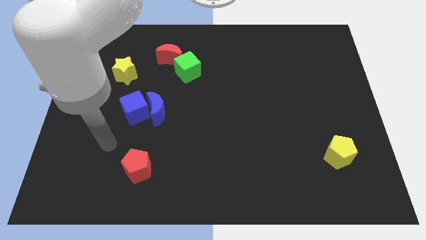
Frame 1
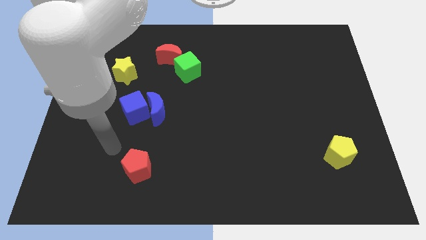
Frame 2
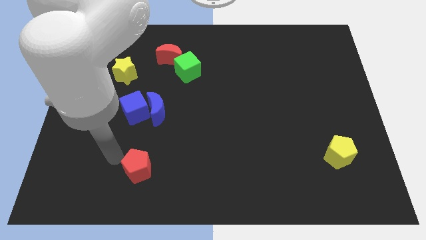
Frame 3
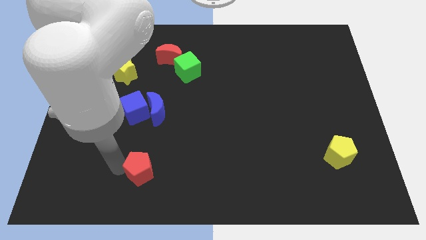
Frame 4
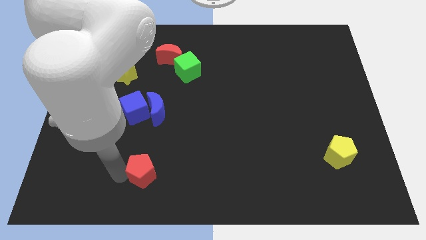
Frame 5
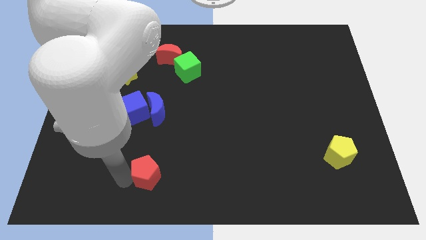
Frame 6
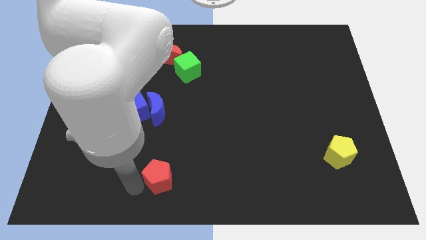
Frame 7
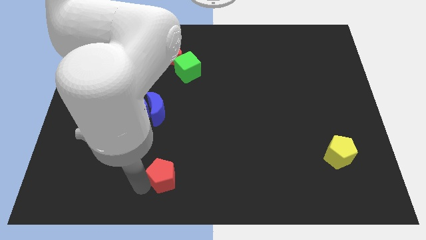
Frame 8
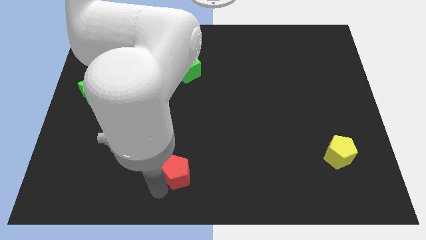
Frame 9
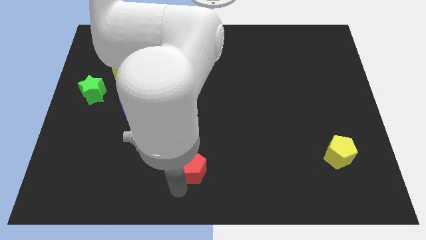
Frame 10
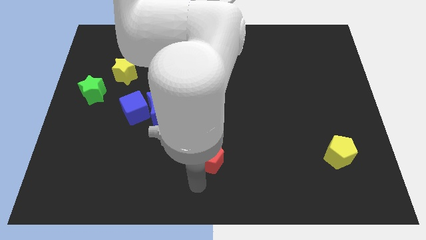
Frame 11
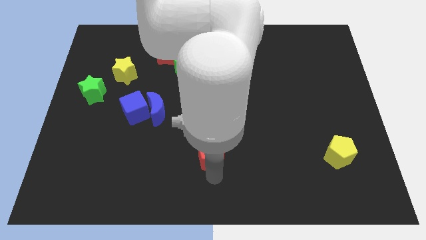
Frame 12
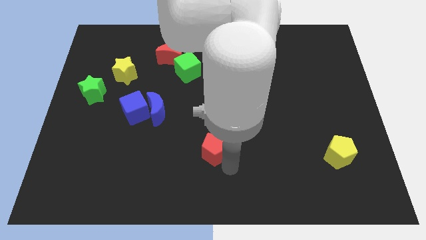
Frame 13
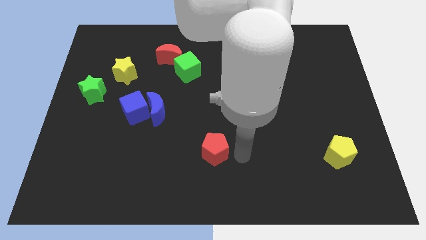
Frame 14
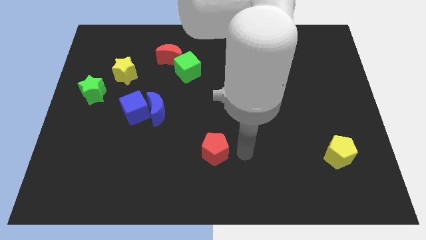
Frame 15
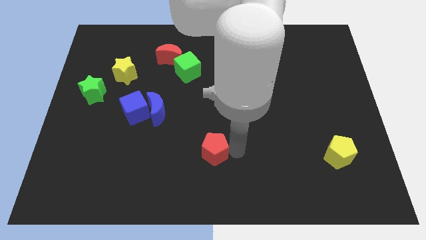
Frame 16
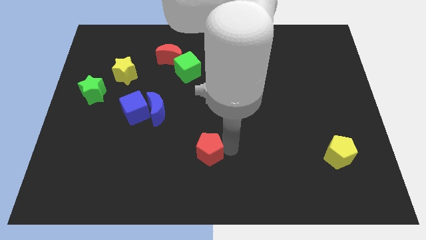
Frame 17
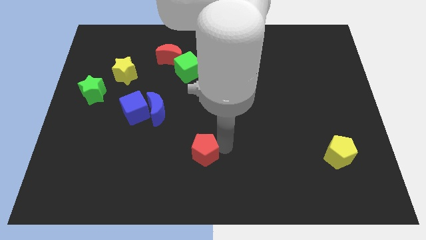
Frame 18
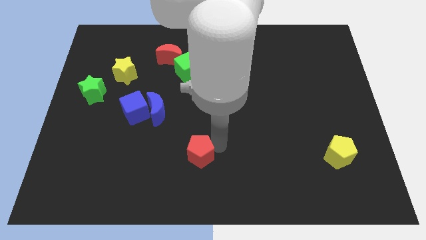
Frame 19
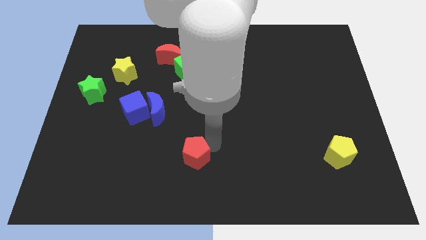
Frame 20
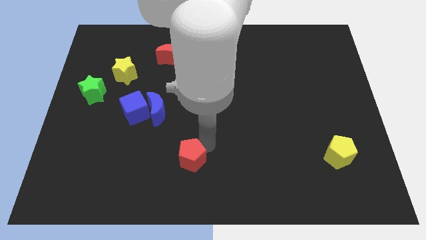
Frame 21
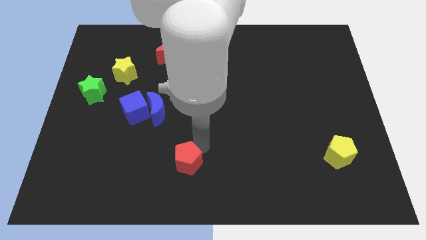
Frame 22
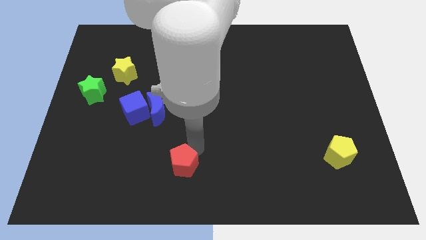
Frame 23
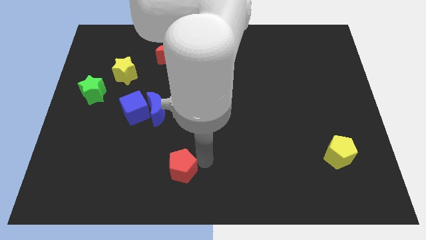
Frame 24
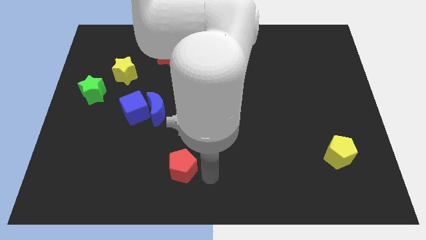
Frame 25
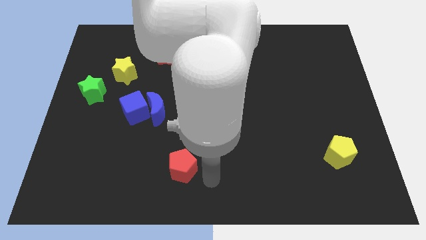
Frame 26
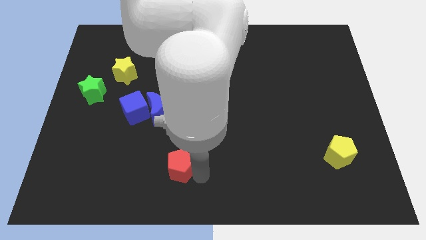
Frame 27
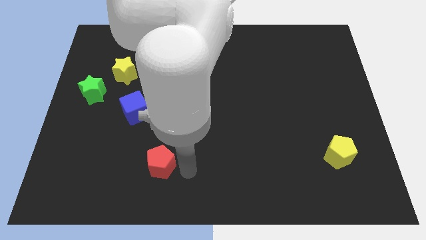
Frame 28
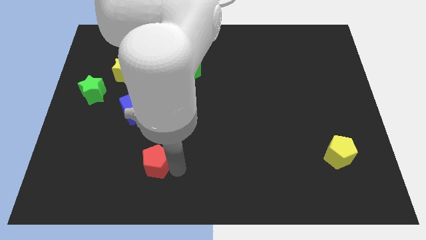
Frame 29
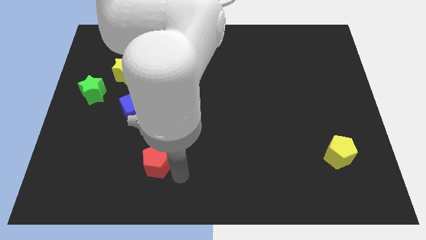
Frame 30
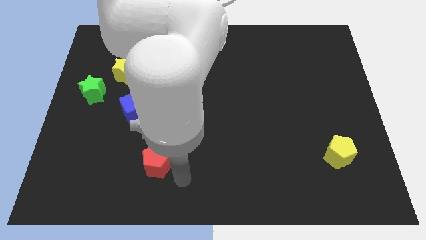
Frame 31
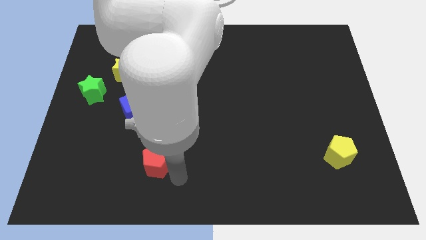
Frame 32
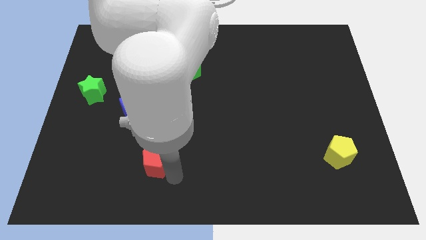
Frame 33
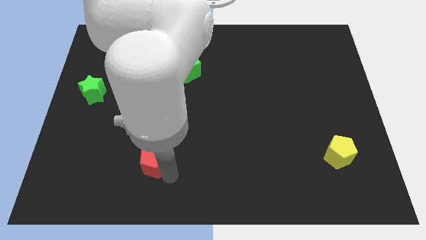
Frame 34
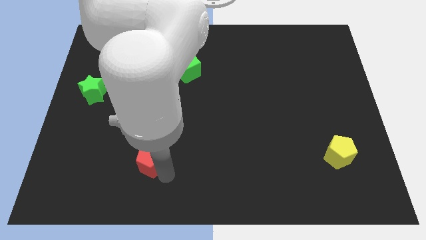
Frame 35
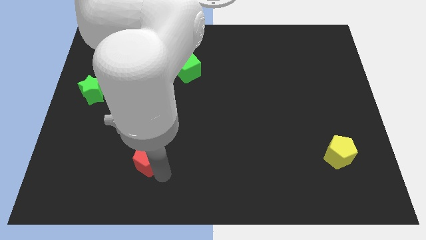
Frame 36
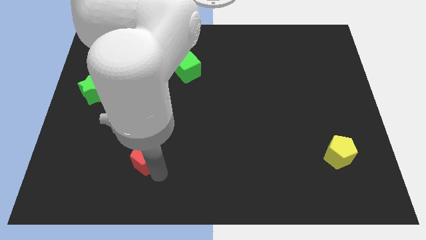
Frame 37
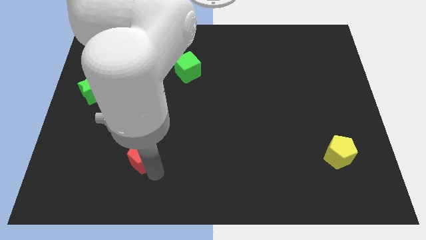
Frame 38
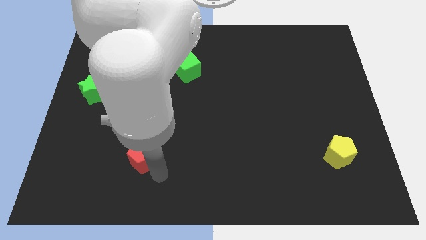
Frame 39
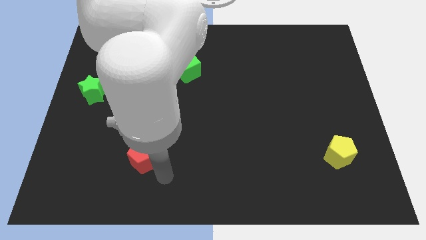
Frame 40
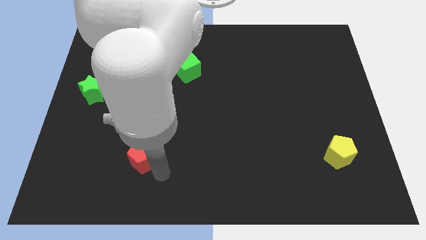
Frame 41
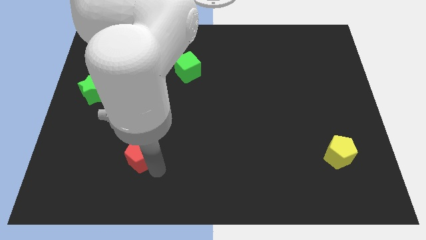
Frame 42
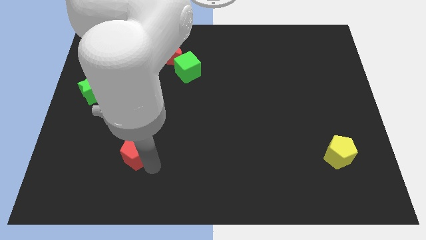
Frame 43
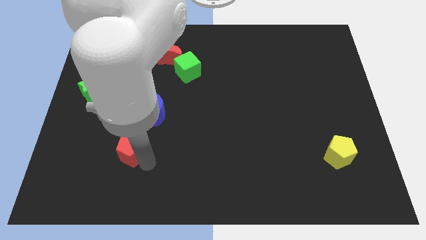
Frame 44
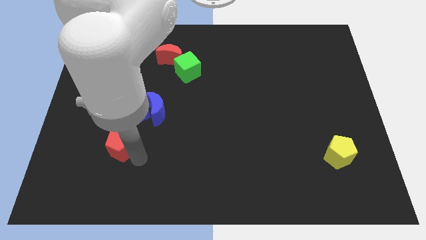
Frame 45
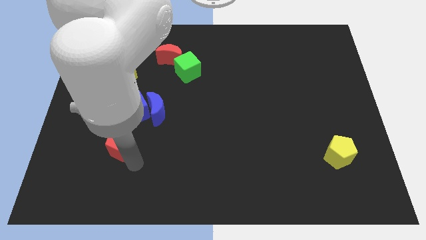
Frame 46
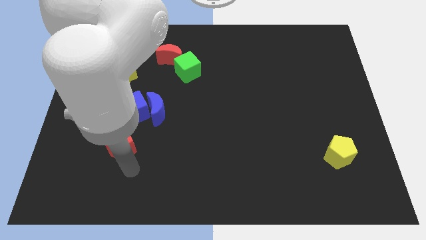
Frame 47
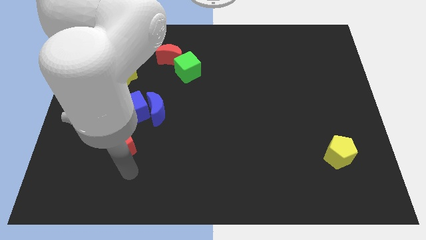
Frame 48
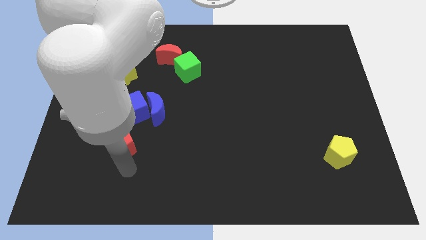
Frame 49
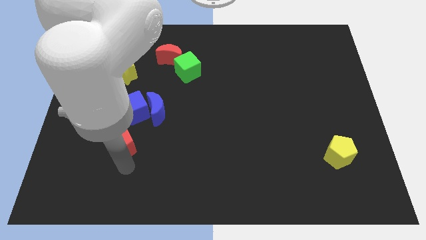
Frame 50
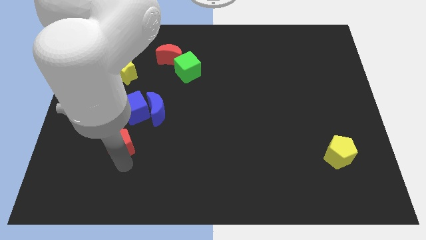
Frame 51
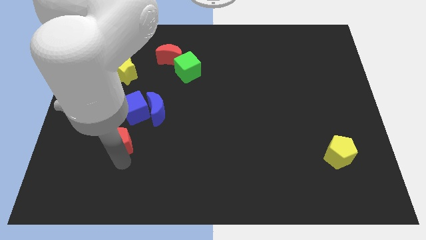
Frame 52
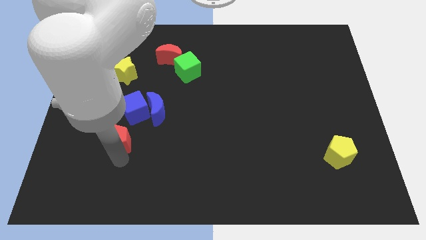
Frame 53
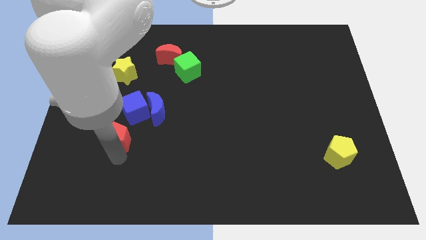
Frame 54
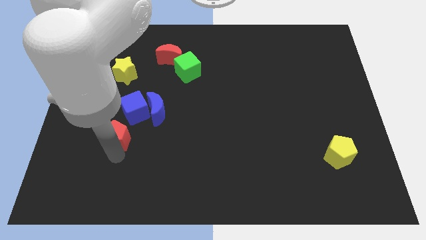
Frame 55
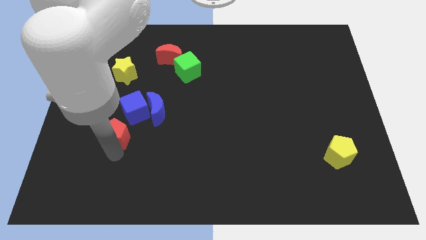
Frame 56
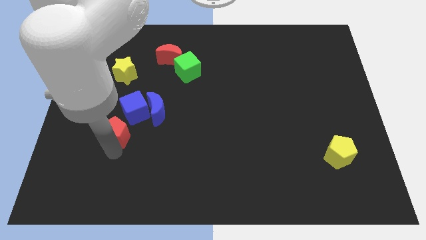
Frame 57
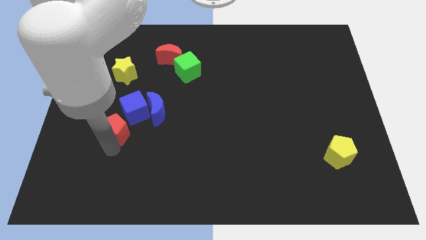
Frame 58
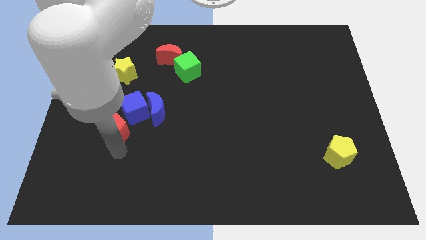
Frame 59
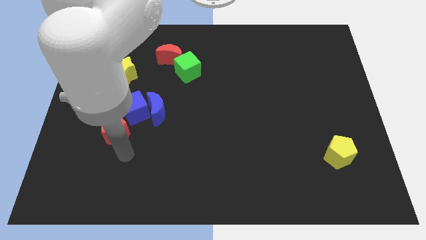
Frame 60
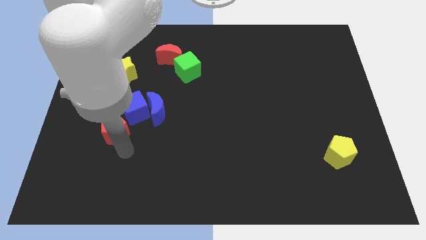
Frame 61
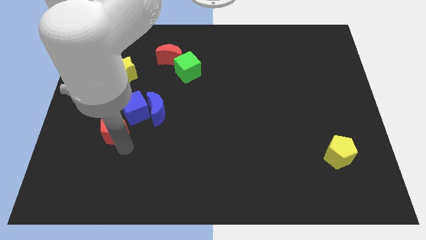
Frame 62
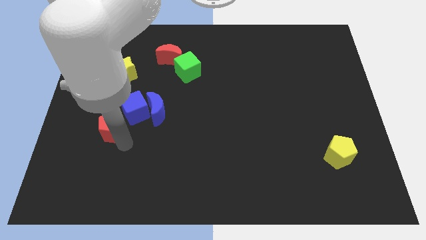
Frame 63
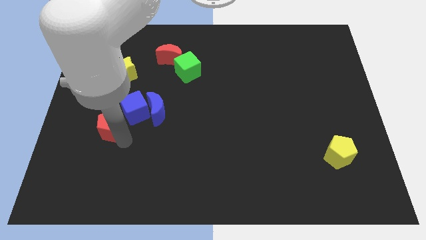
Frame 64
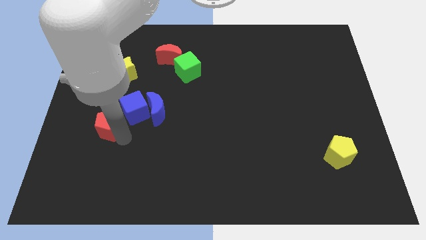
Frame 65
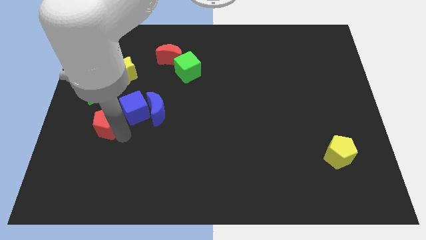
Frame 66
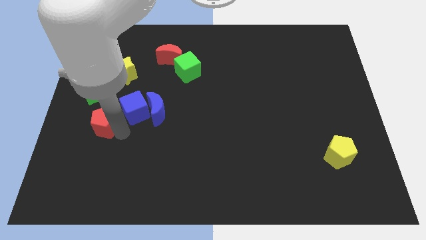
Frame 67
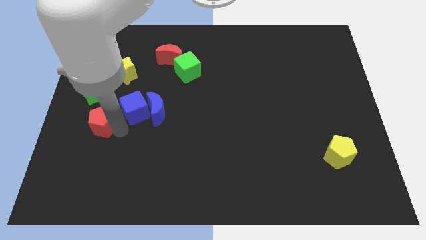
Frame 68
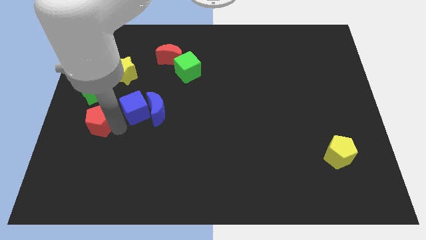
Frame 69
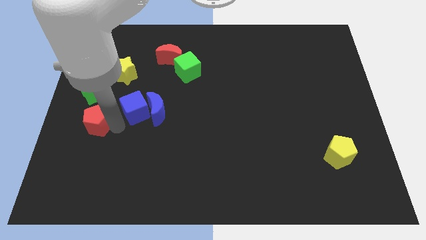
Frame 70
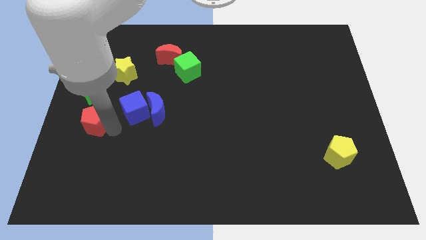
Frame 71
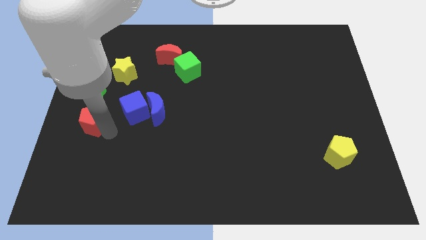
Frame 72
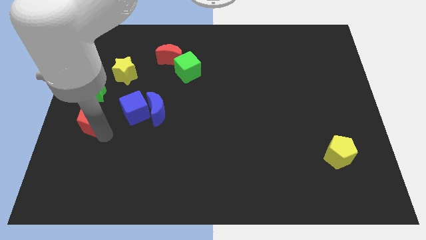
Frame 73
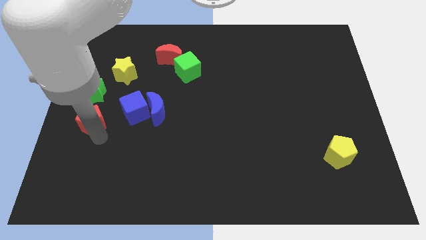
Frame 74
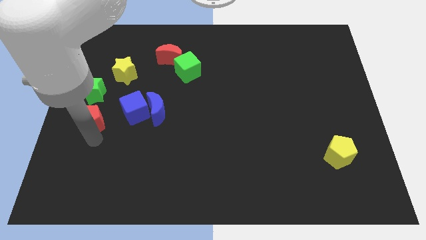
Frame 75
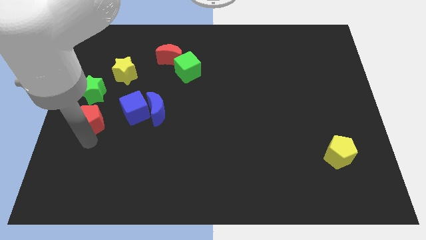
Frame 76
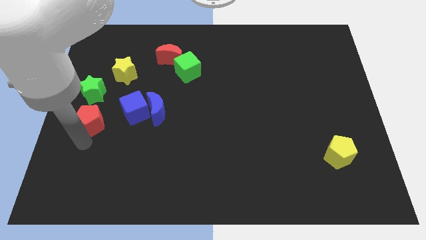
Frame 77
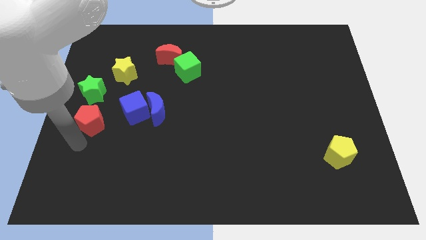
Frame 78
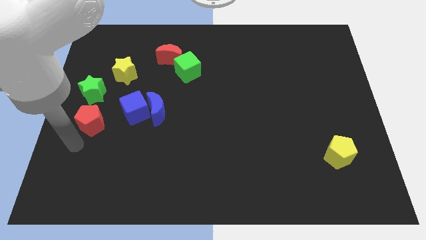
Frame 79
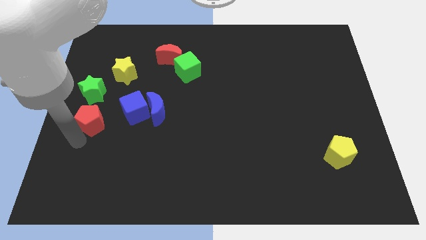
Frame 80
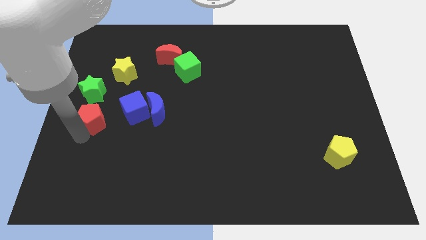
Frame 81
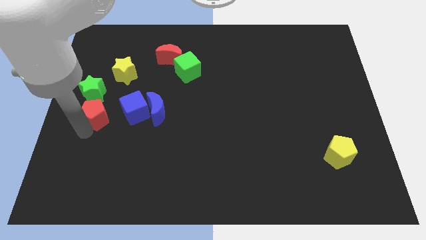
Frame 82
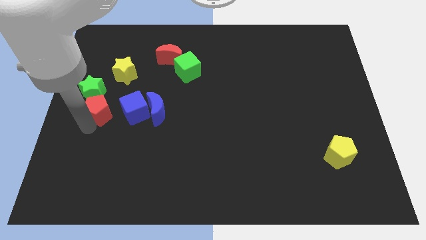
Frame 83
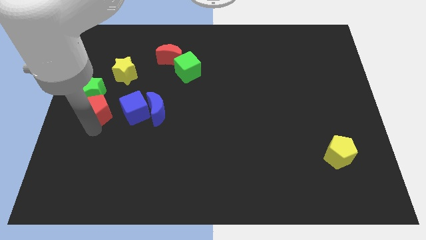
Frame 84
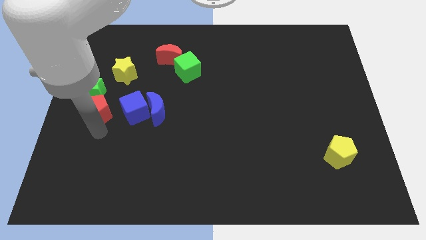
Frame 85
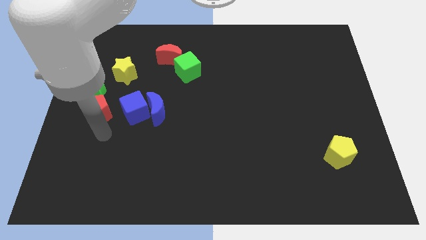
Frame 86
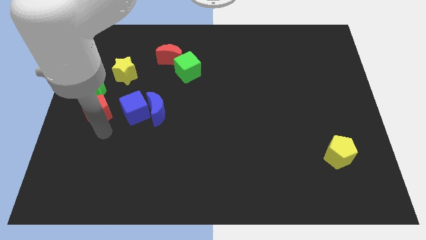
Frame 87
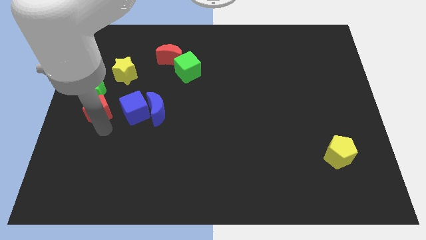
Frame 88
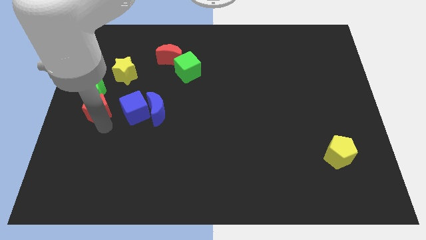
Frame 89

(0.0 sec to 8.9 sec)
slide the red pentagon to the green star
